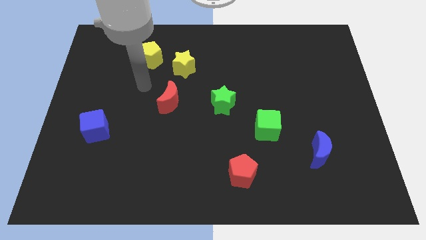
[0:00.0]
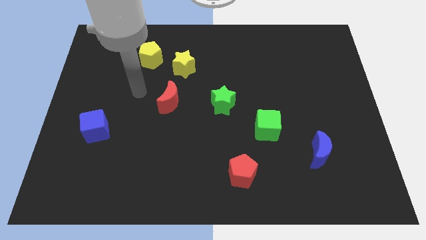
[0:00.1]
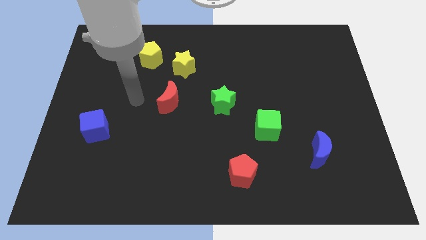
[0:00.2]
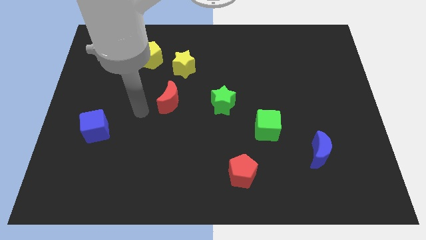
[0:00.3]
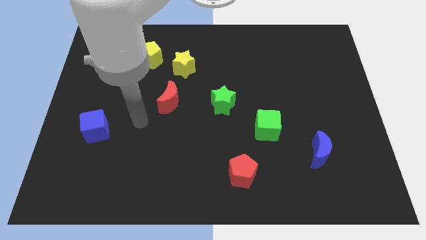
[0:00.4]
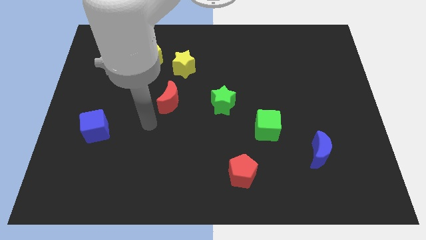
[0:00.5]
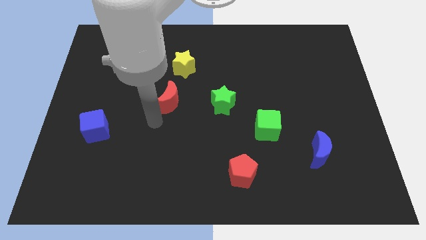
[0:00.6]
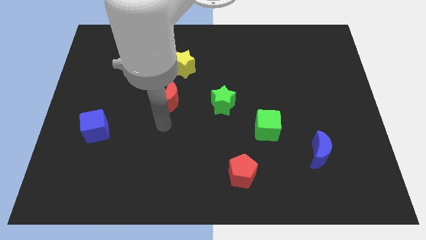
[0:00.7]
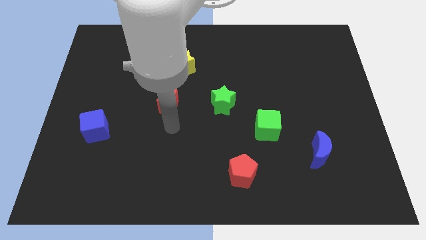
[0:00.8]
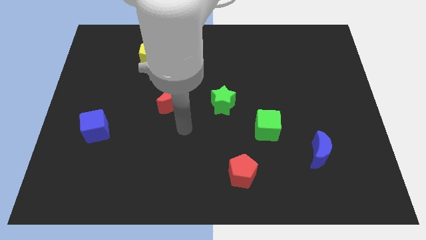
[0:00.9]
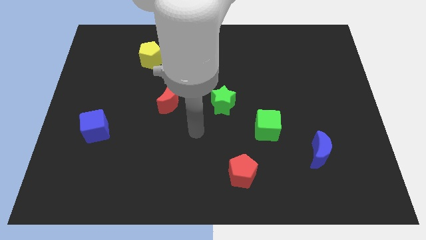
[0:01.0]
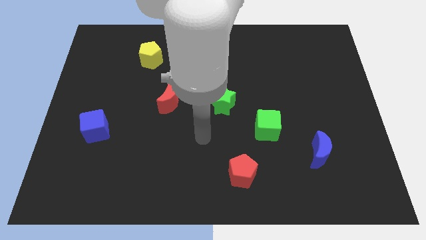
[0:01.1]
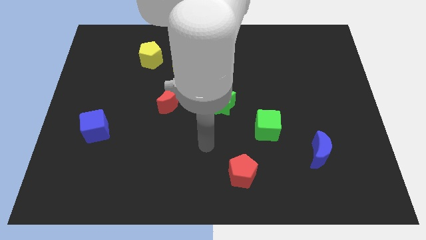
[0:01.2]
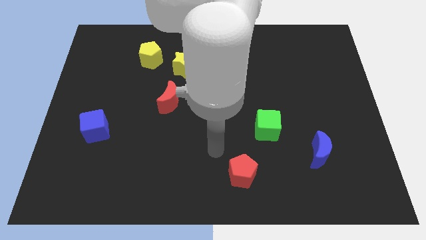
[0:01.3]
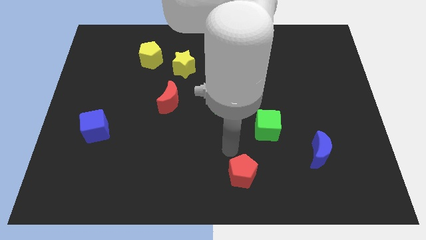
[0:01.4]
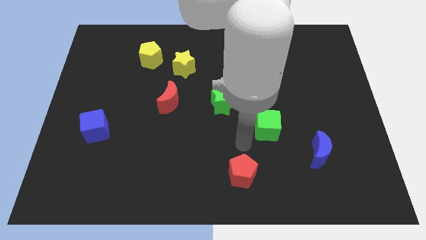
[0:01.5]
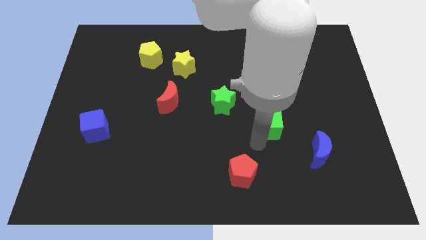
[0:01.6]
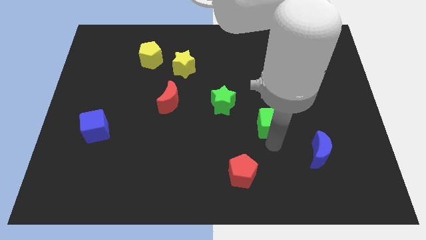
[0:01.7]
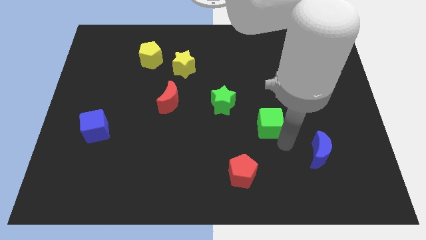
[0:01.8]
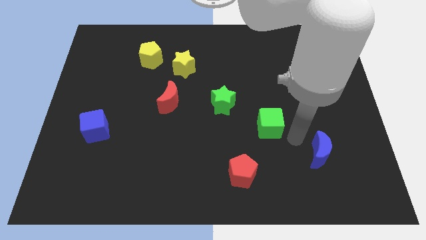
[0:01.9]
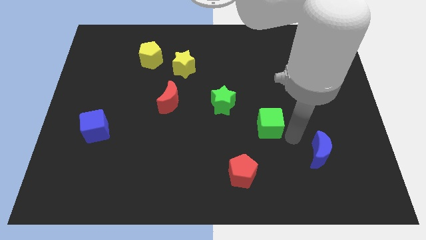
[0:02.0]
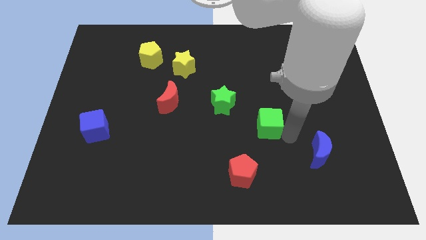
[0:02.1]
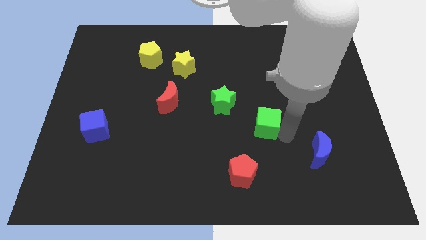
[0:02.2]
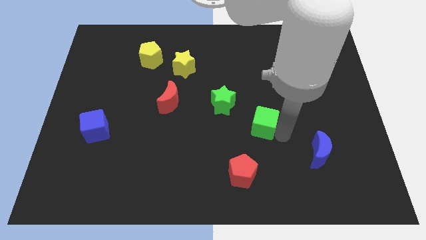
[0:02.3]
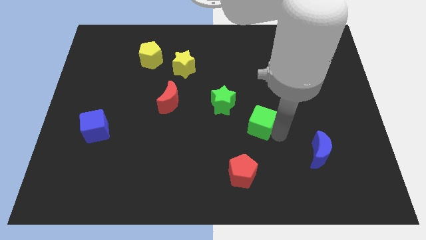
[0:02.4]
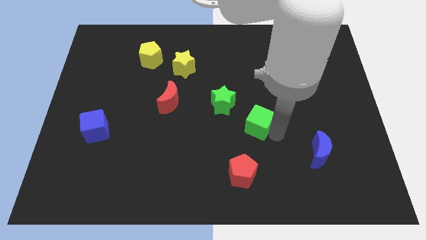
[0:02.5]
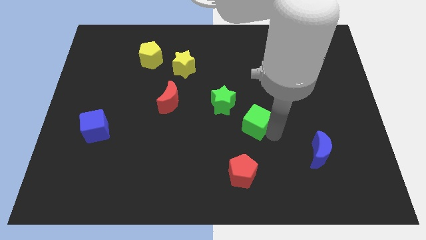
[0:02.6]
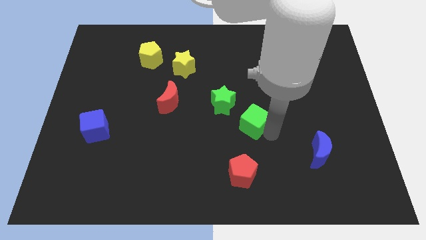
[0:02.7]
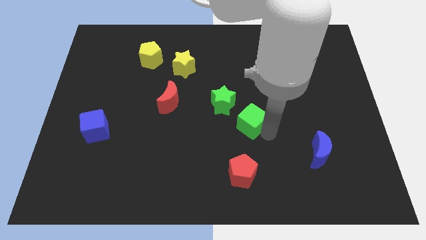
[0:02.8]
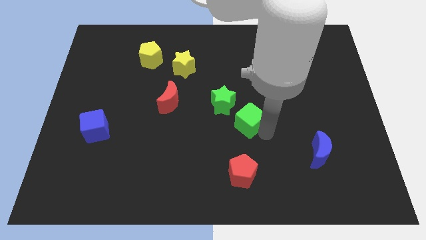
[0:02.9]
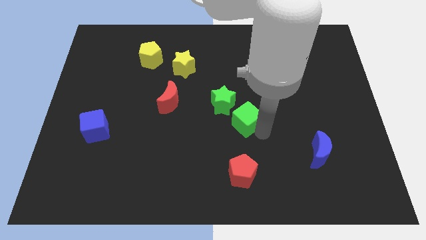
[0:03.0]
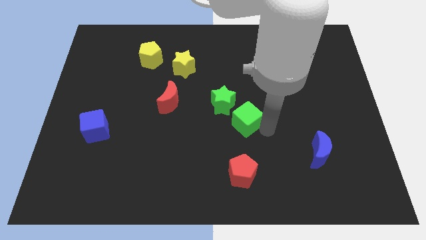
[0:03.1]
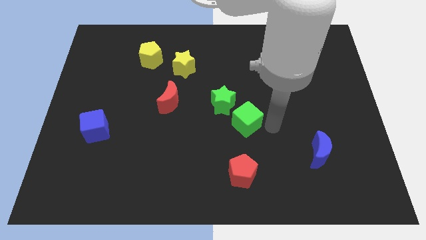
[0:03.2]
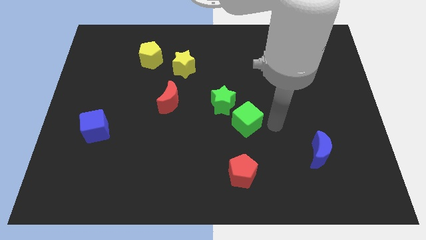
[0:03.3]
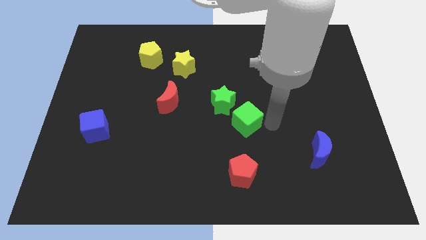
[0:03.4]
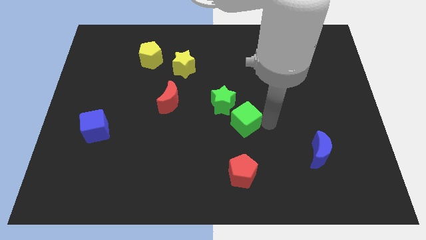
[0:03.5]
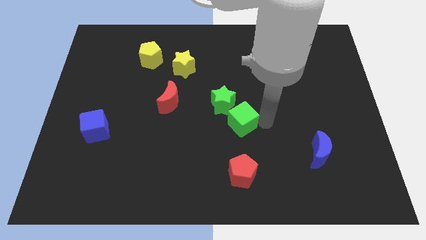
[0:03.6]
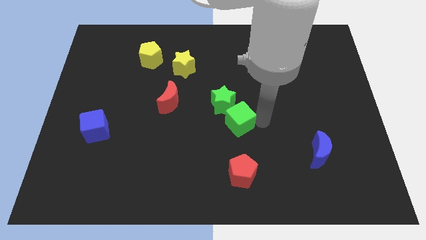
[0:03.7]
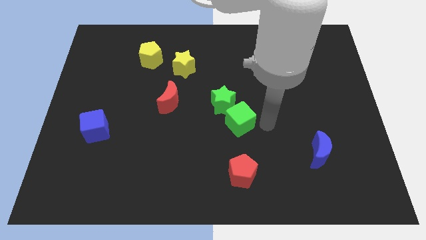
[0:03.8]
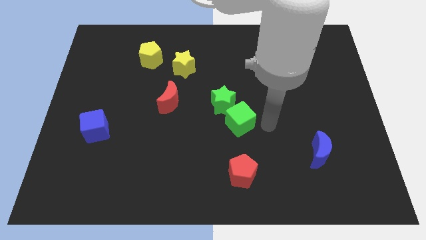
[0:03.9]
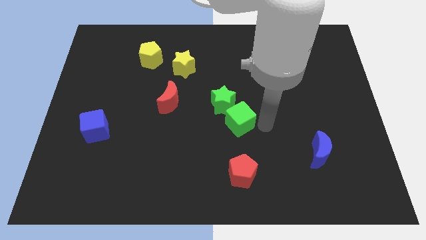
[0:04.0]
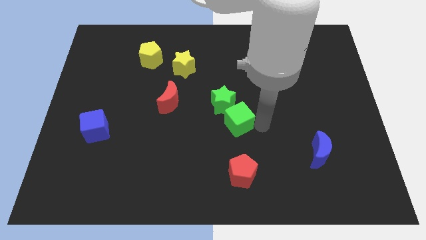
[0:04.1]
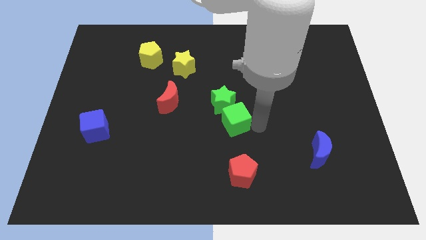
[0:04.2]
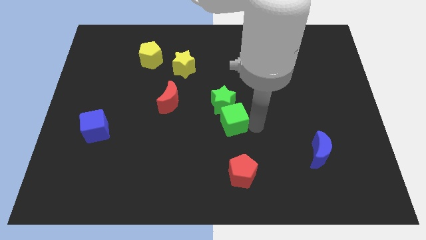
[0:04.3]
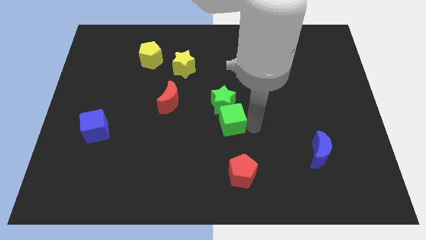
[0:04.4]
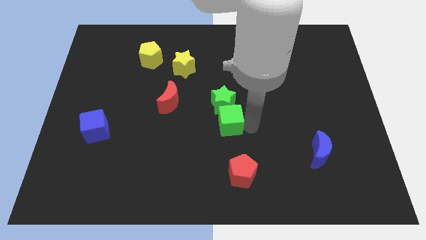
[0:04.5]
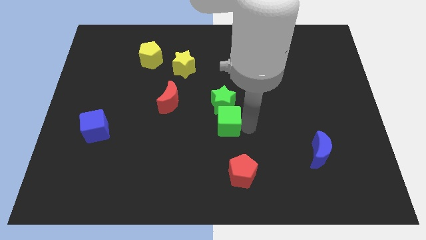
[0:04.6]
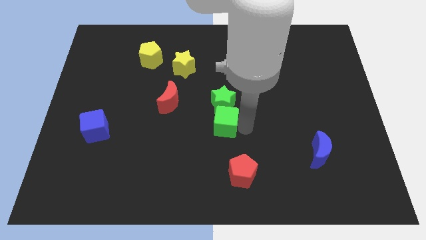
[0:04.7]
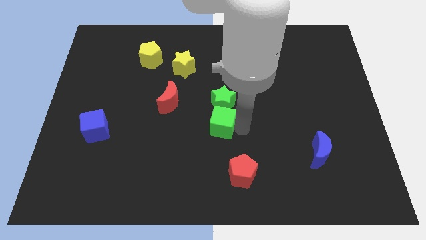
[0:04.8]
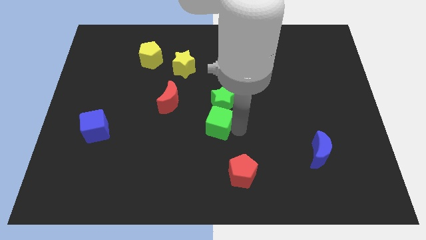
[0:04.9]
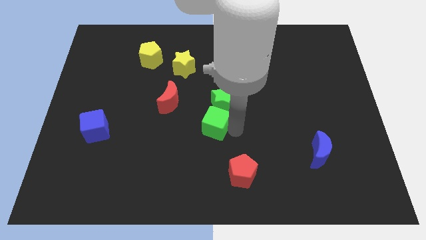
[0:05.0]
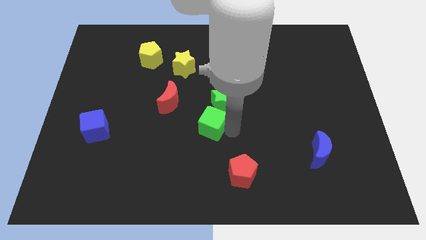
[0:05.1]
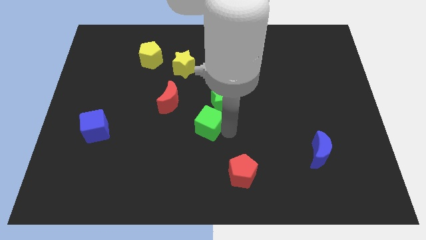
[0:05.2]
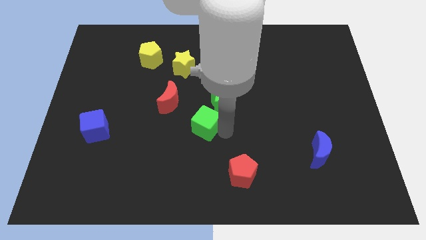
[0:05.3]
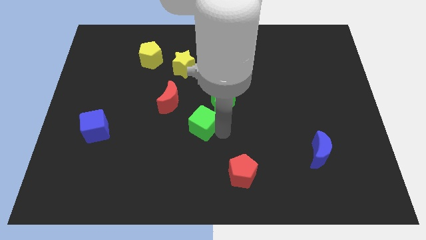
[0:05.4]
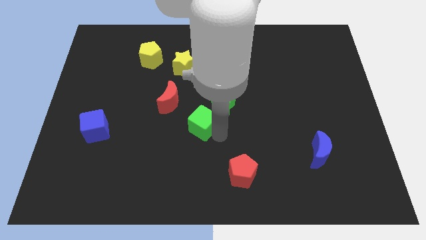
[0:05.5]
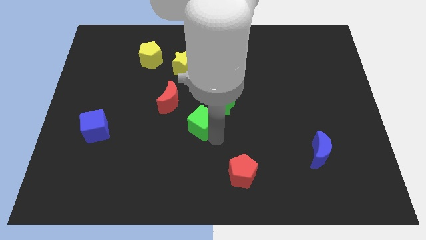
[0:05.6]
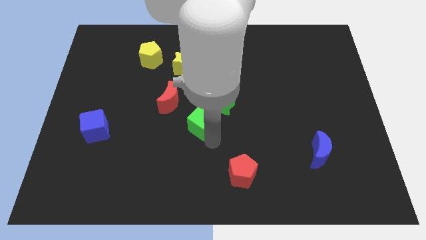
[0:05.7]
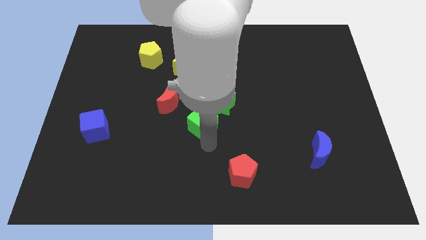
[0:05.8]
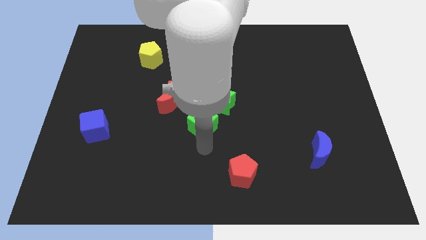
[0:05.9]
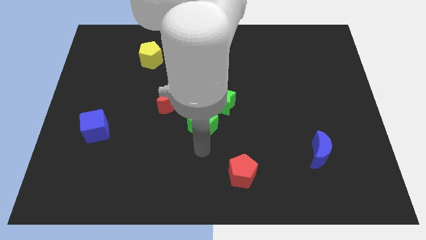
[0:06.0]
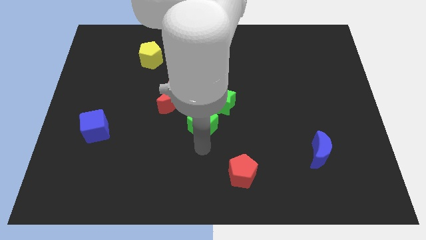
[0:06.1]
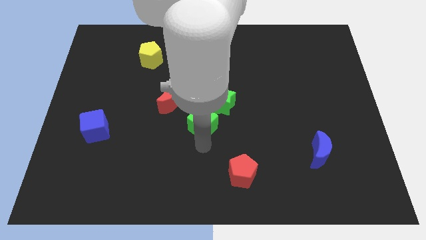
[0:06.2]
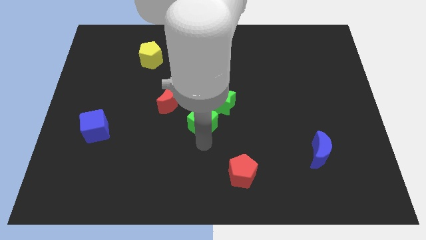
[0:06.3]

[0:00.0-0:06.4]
slightly slide the green cube upwards and then left

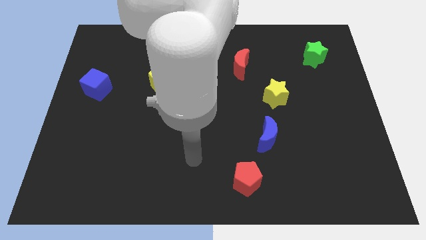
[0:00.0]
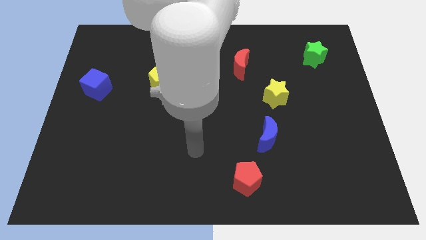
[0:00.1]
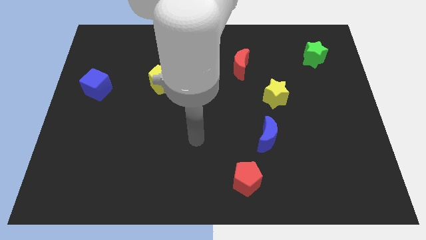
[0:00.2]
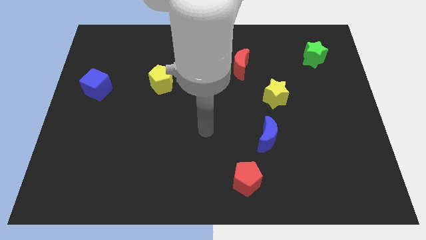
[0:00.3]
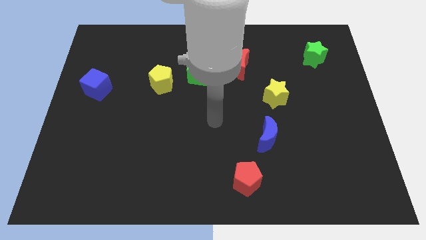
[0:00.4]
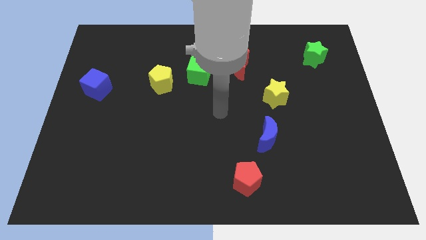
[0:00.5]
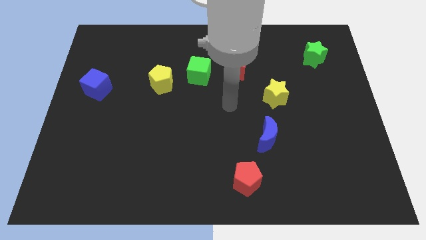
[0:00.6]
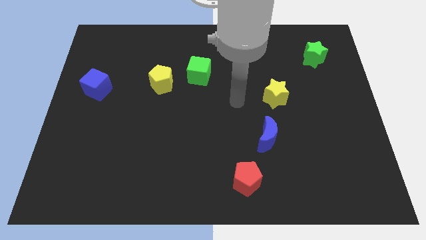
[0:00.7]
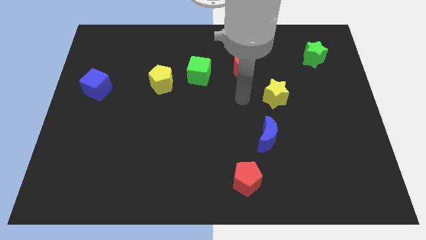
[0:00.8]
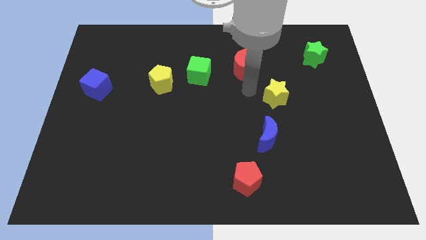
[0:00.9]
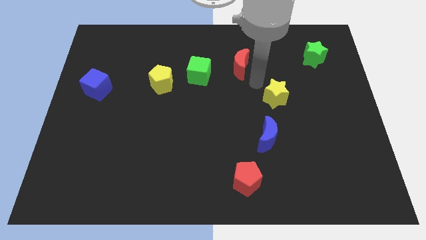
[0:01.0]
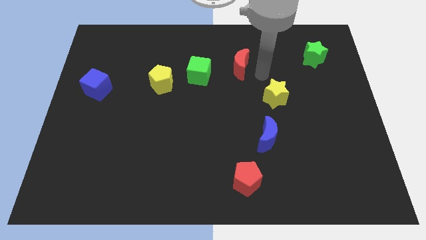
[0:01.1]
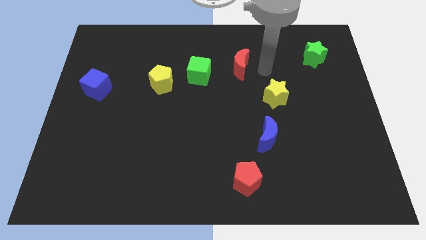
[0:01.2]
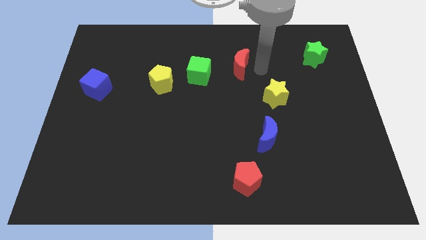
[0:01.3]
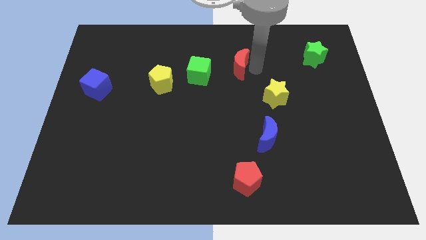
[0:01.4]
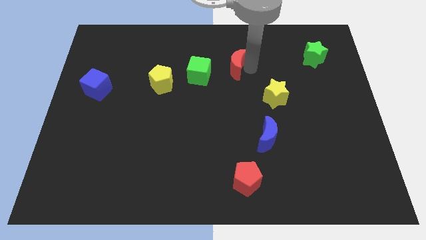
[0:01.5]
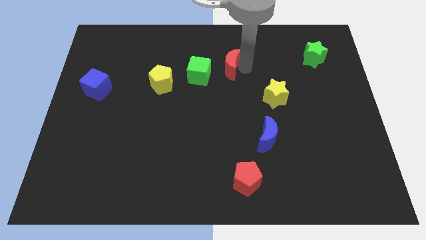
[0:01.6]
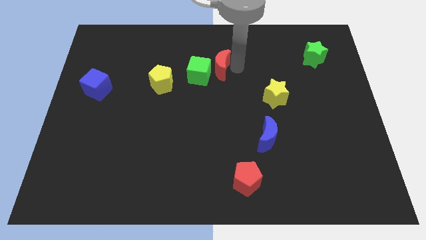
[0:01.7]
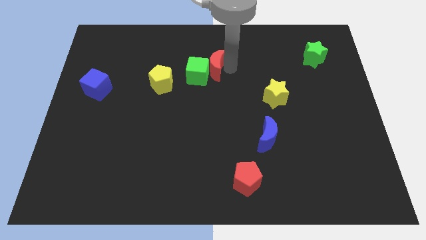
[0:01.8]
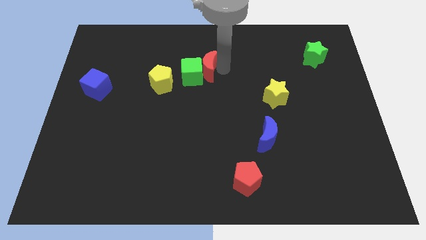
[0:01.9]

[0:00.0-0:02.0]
slide the red moon a little left
